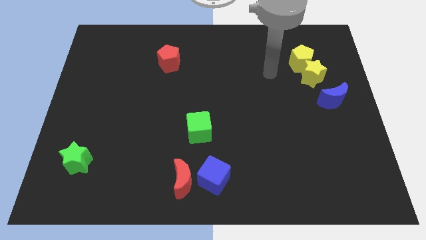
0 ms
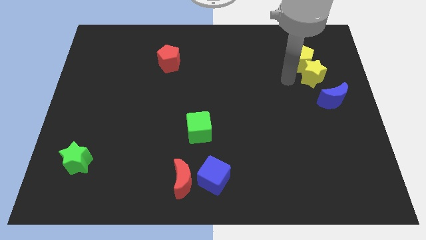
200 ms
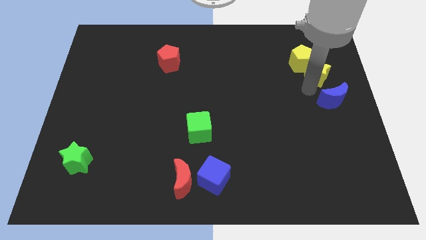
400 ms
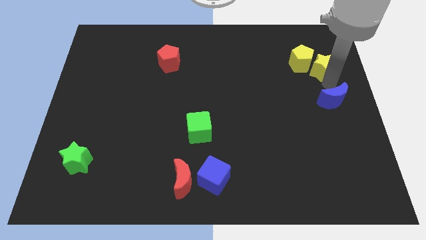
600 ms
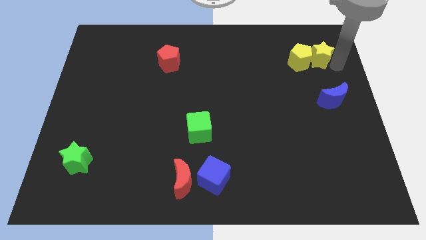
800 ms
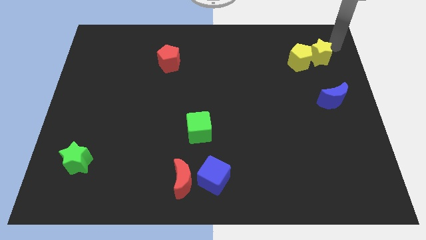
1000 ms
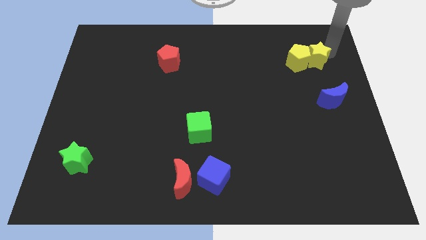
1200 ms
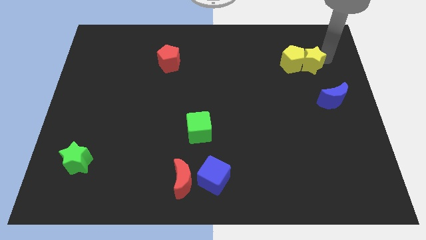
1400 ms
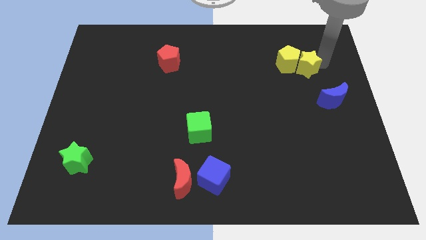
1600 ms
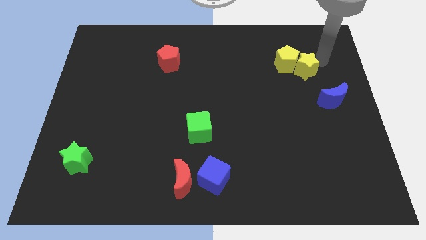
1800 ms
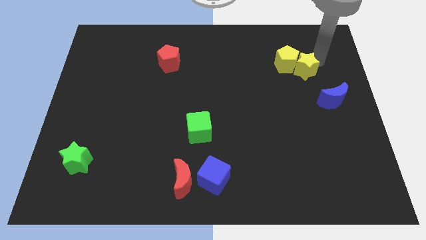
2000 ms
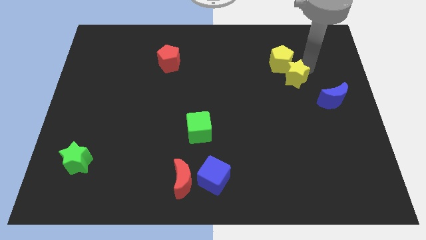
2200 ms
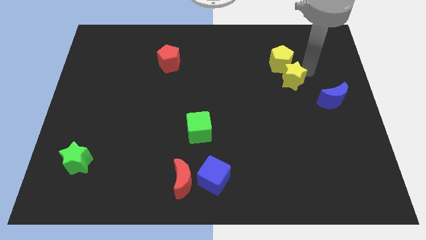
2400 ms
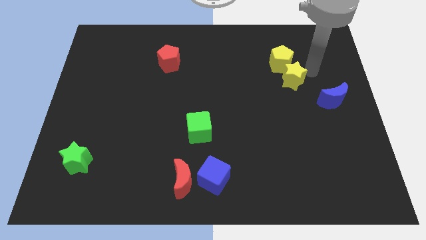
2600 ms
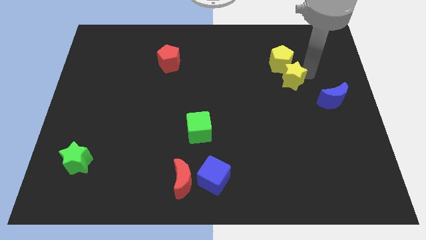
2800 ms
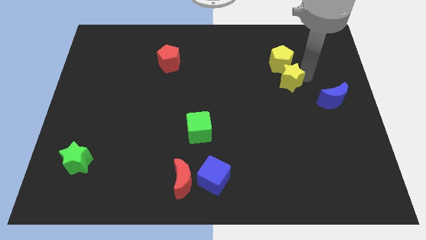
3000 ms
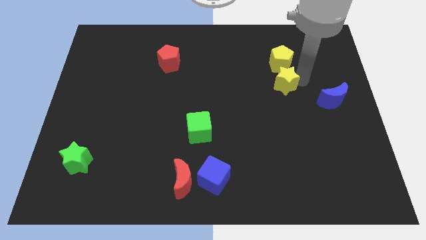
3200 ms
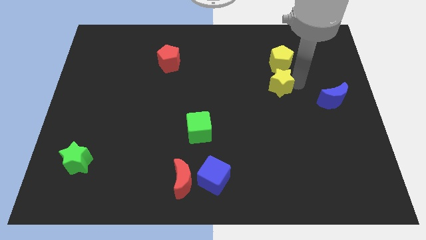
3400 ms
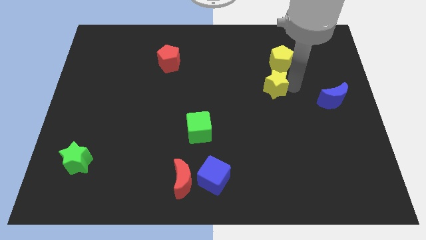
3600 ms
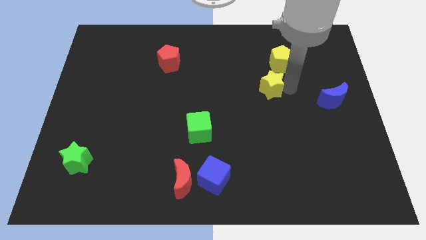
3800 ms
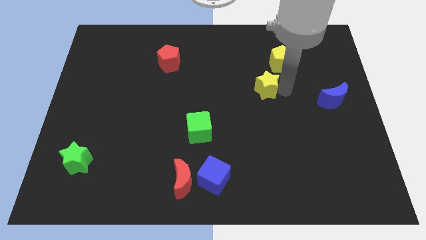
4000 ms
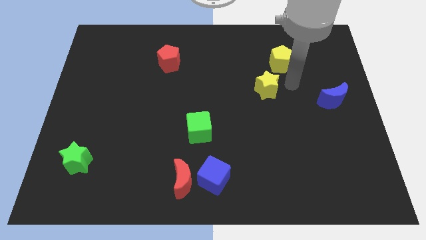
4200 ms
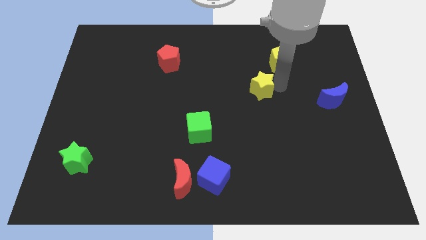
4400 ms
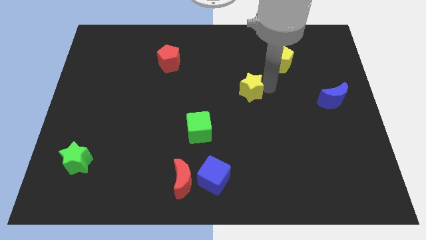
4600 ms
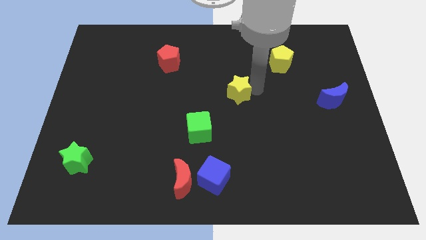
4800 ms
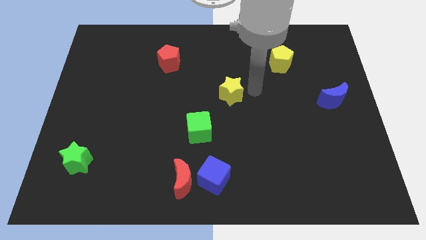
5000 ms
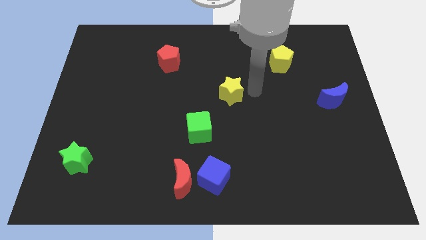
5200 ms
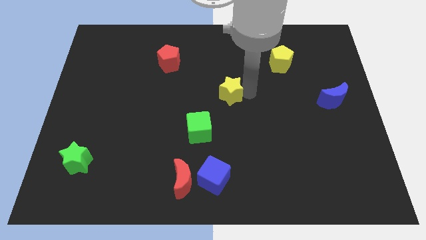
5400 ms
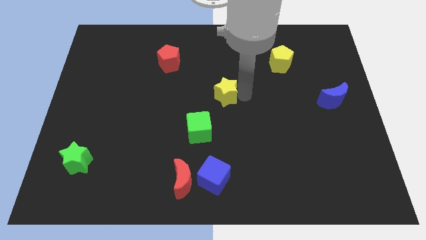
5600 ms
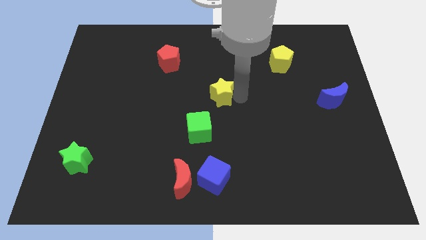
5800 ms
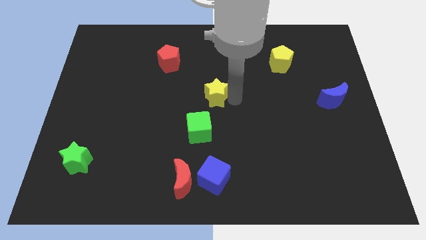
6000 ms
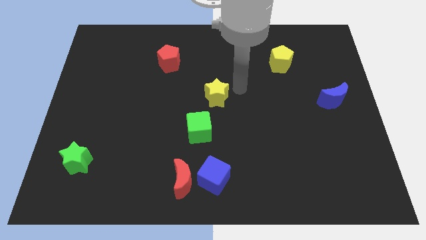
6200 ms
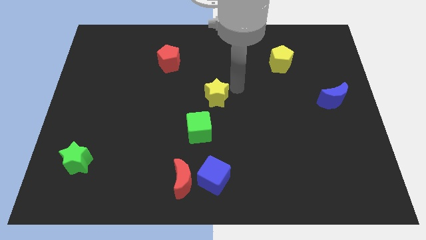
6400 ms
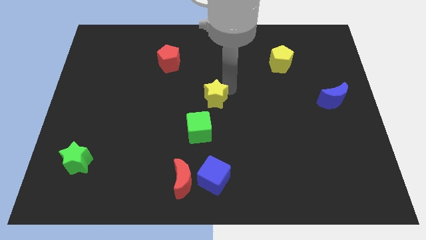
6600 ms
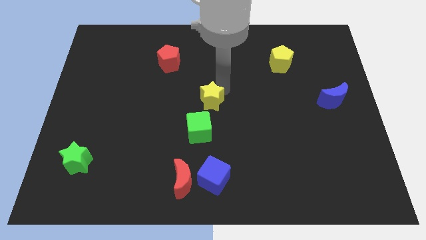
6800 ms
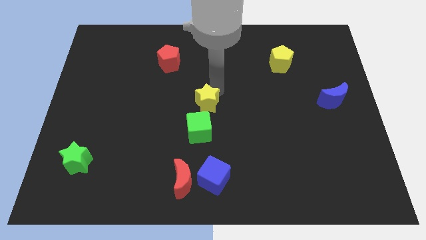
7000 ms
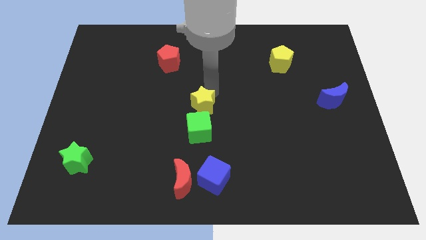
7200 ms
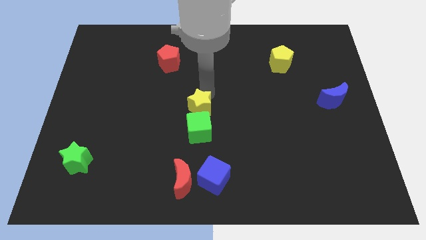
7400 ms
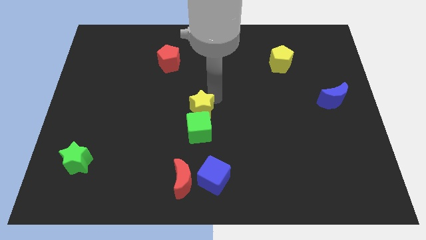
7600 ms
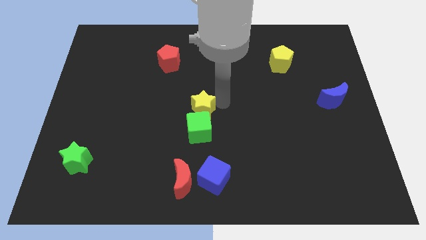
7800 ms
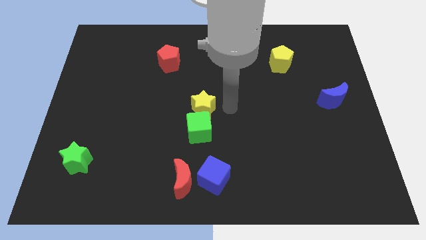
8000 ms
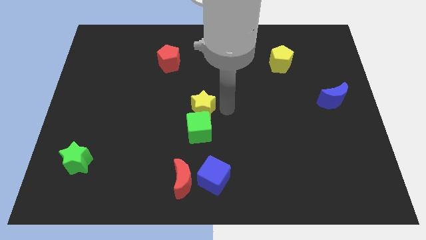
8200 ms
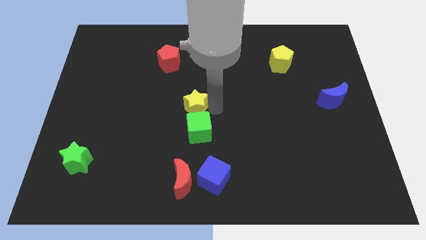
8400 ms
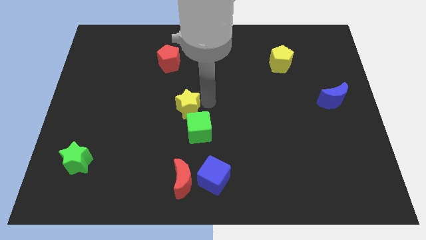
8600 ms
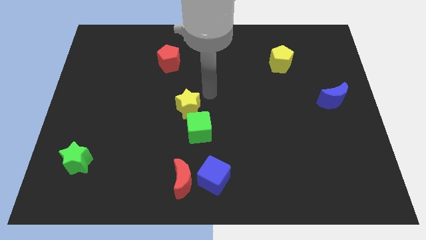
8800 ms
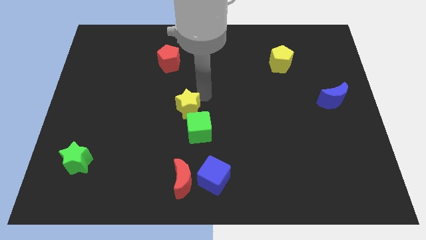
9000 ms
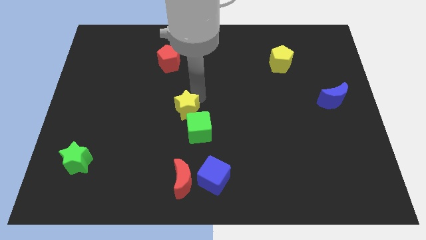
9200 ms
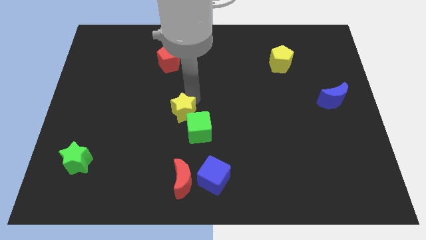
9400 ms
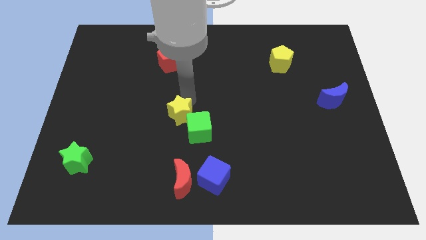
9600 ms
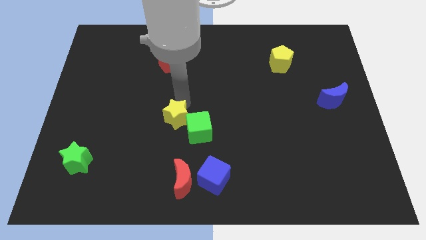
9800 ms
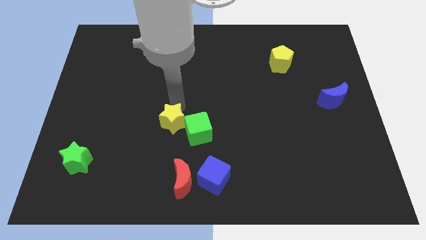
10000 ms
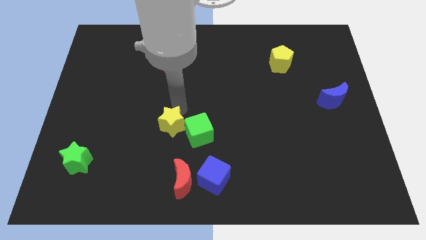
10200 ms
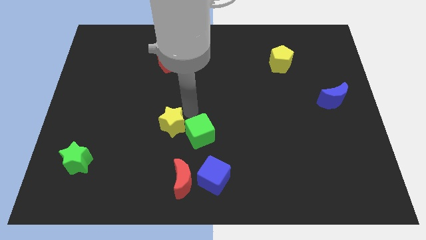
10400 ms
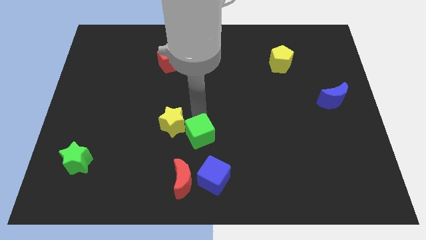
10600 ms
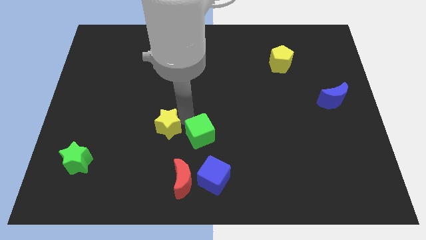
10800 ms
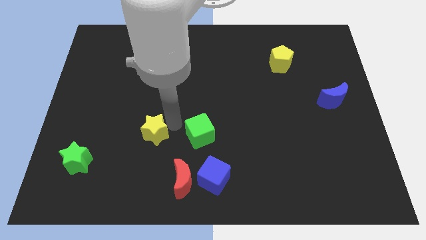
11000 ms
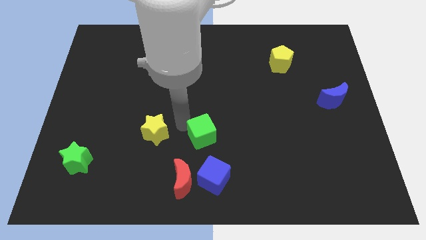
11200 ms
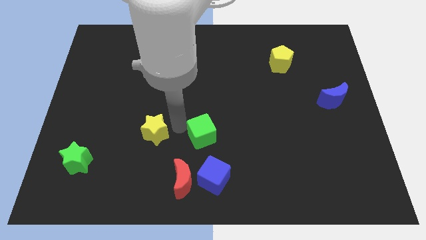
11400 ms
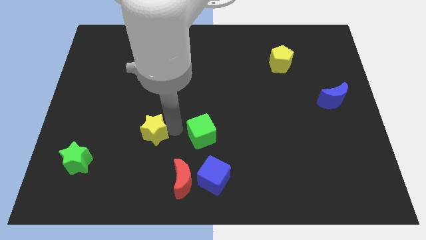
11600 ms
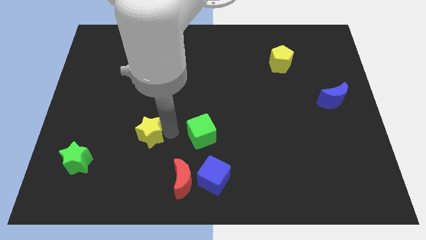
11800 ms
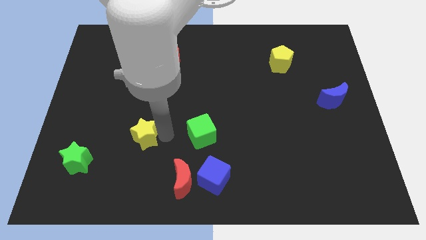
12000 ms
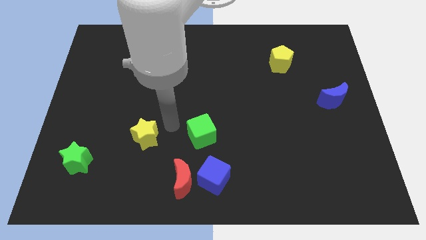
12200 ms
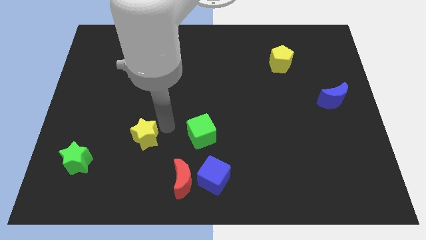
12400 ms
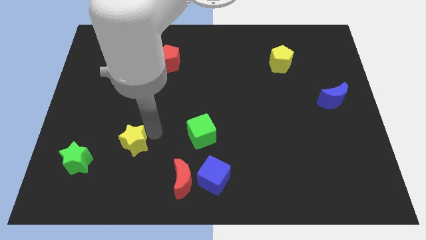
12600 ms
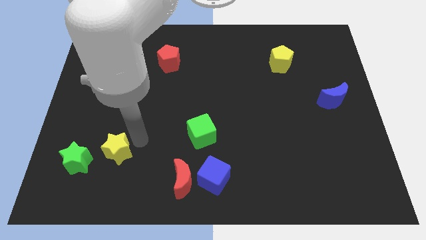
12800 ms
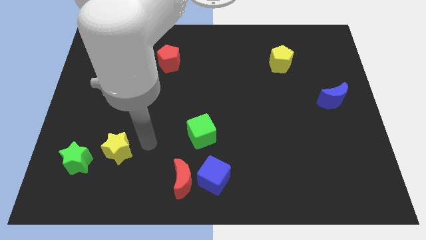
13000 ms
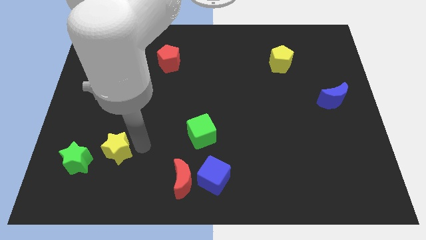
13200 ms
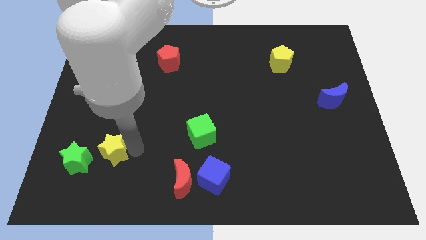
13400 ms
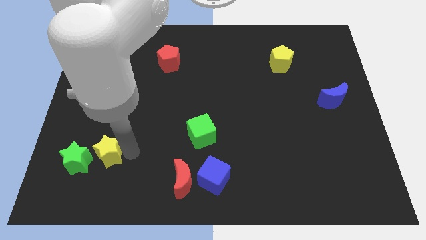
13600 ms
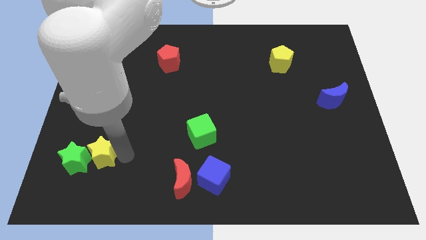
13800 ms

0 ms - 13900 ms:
put the yellow star towards the green star
